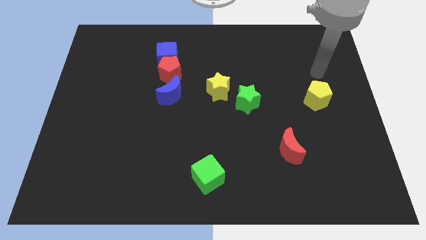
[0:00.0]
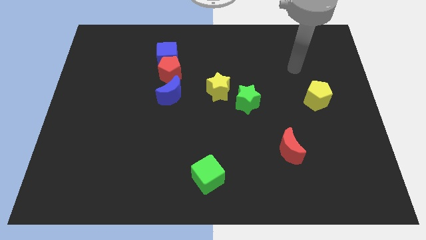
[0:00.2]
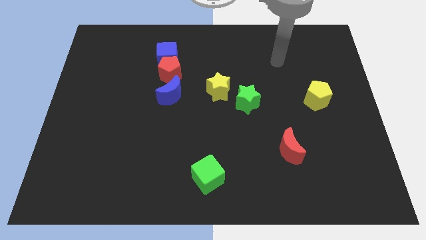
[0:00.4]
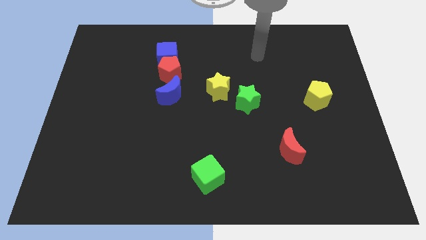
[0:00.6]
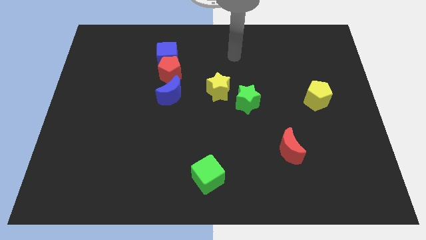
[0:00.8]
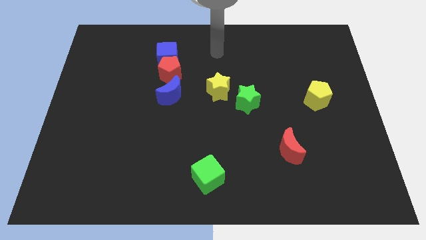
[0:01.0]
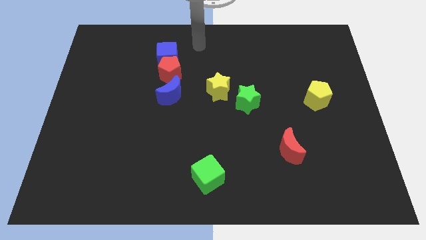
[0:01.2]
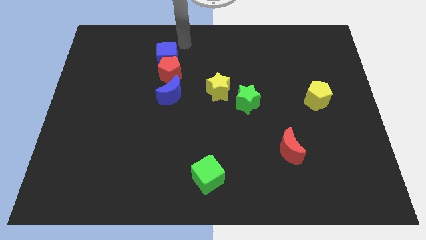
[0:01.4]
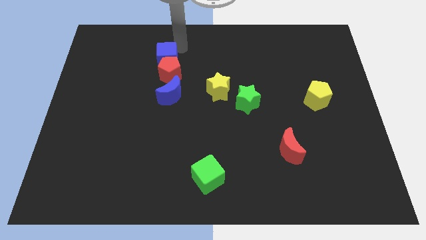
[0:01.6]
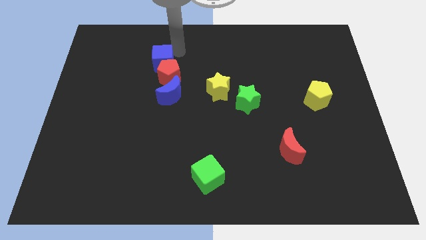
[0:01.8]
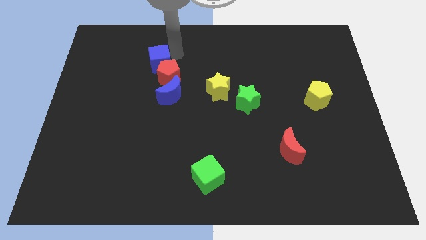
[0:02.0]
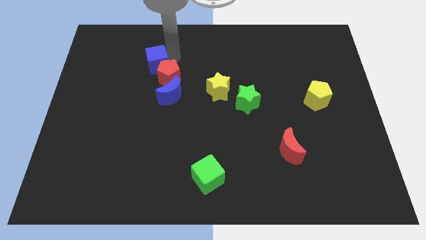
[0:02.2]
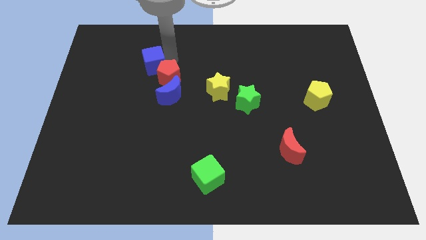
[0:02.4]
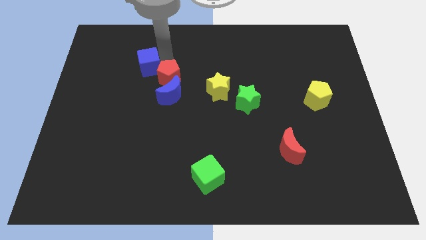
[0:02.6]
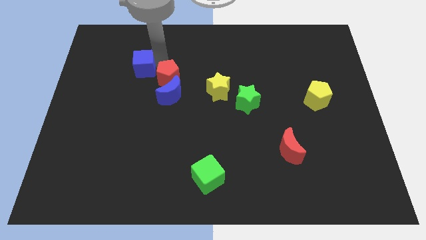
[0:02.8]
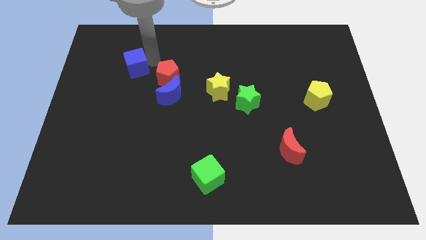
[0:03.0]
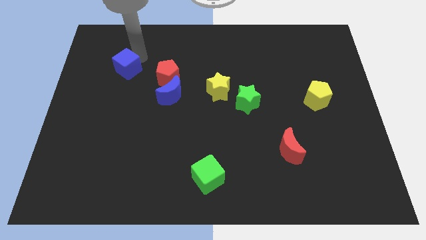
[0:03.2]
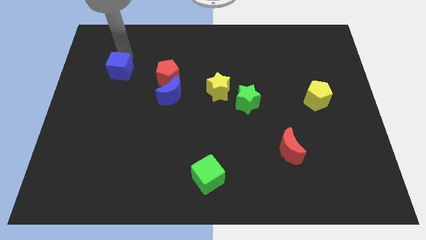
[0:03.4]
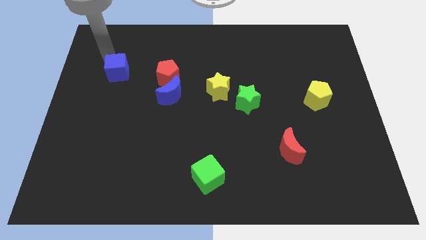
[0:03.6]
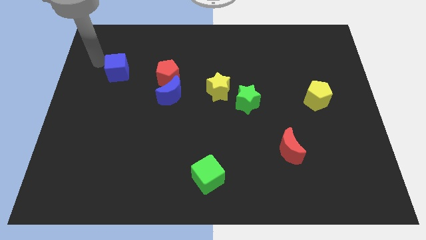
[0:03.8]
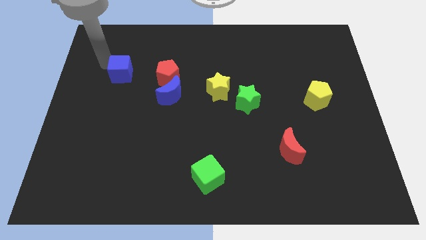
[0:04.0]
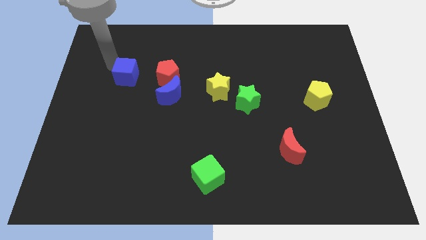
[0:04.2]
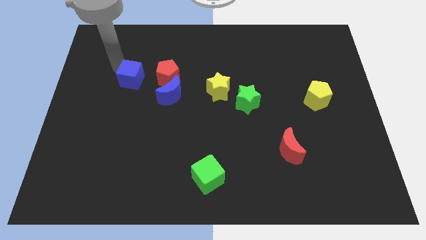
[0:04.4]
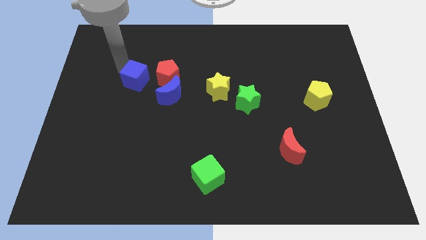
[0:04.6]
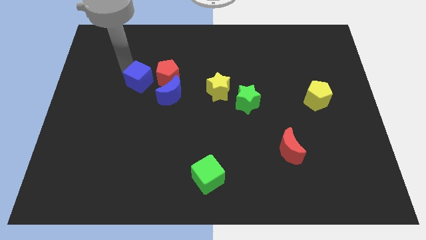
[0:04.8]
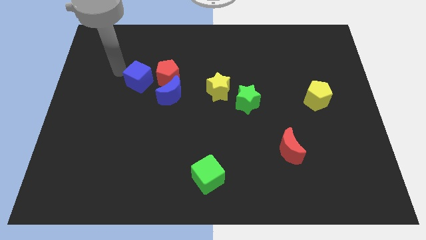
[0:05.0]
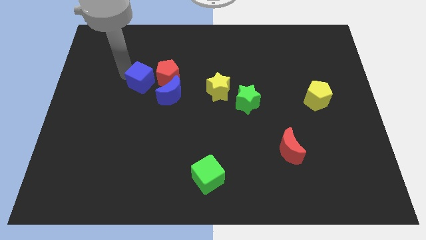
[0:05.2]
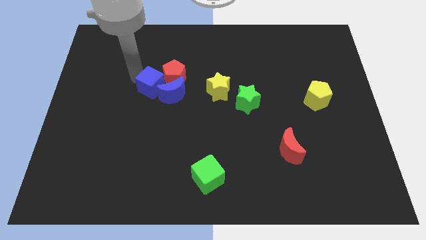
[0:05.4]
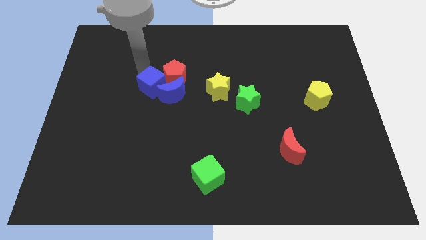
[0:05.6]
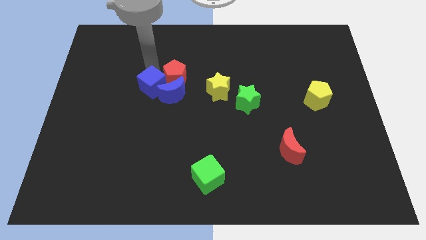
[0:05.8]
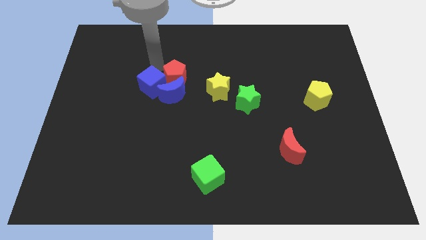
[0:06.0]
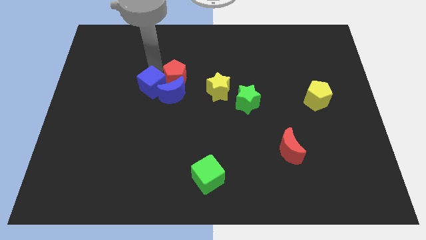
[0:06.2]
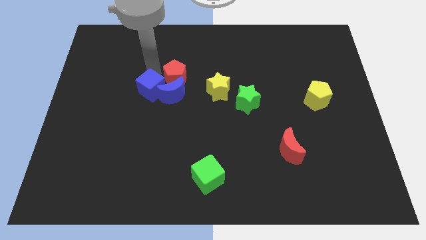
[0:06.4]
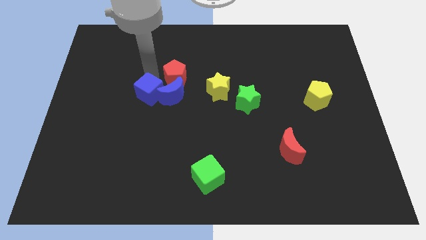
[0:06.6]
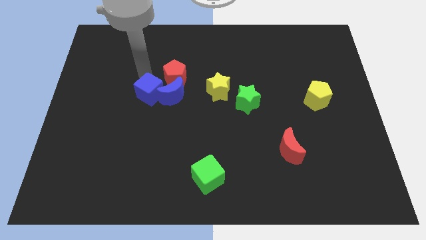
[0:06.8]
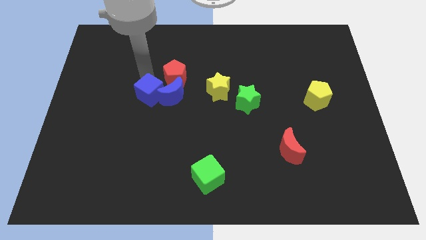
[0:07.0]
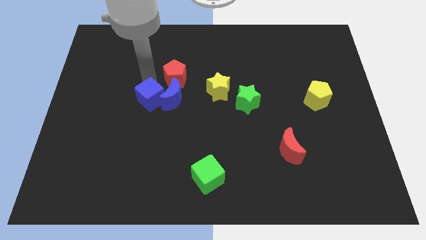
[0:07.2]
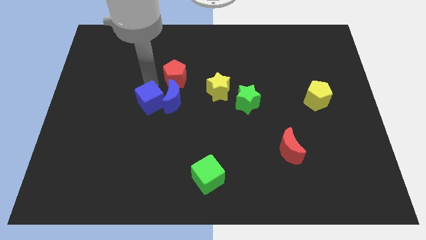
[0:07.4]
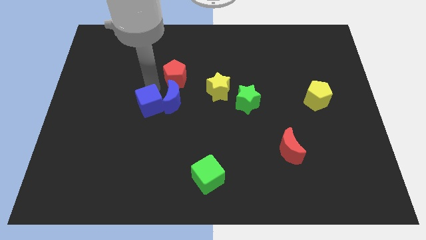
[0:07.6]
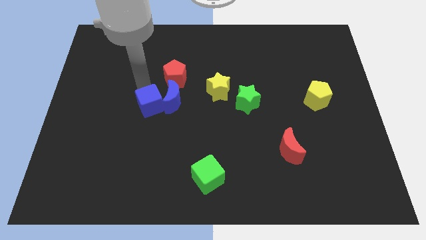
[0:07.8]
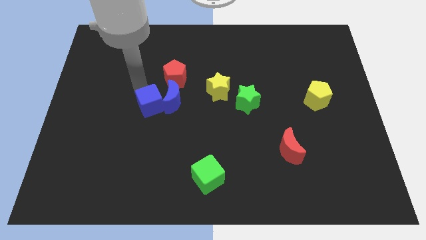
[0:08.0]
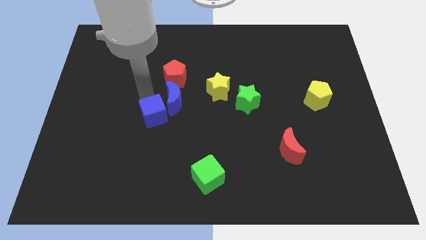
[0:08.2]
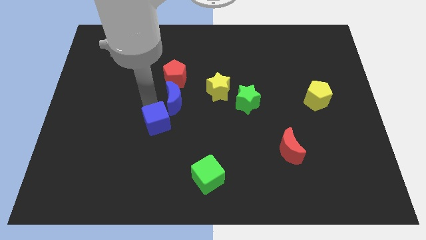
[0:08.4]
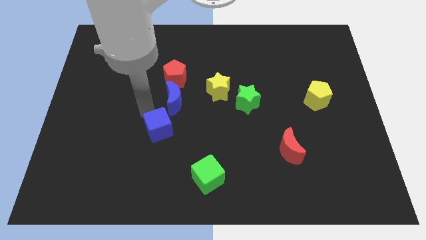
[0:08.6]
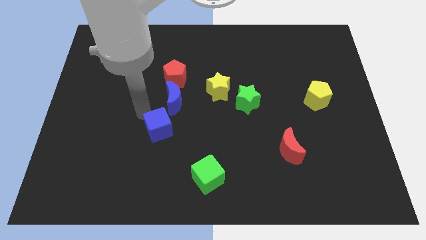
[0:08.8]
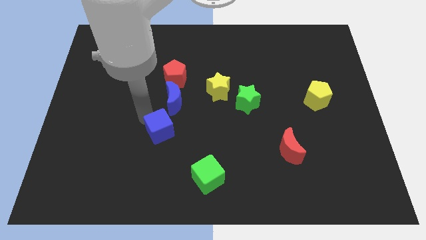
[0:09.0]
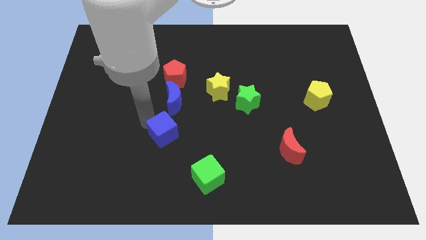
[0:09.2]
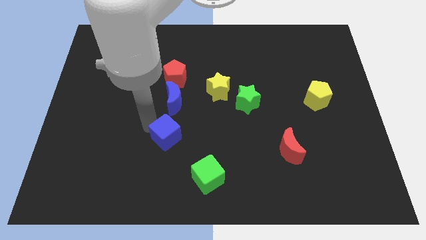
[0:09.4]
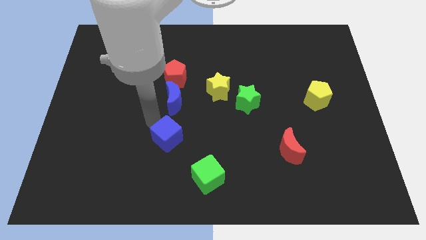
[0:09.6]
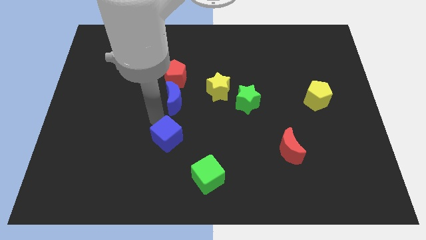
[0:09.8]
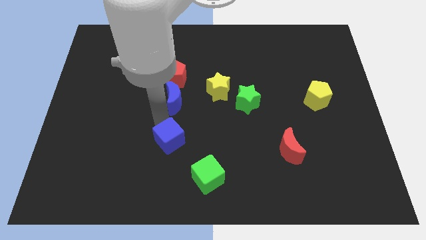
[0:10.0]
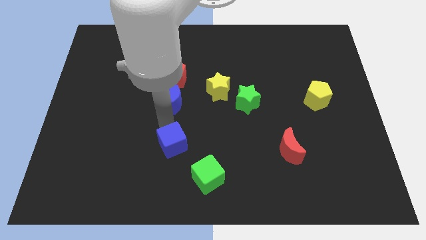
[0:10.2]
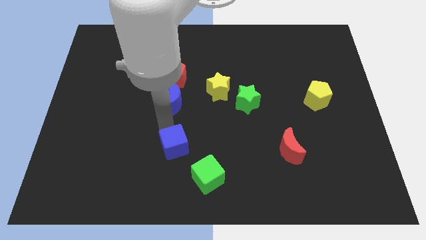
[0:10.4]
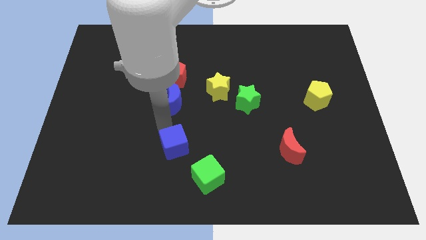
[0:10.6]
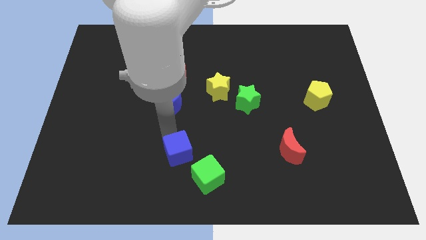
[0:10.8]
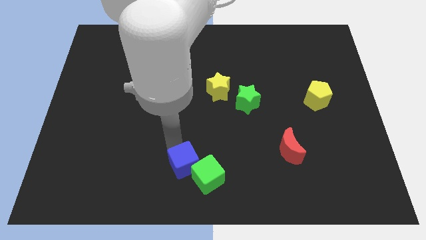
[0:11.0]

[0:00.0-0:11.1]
move the blue cube close to the green cube

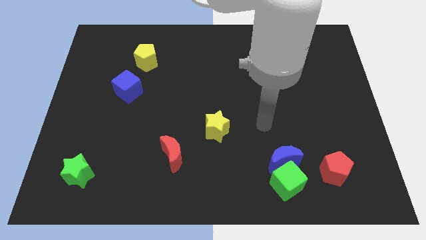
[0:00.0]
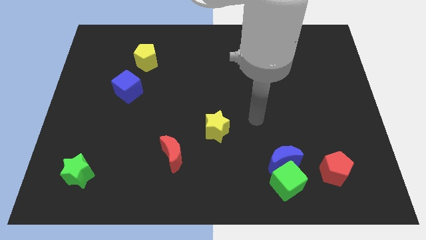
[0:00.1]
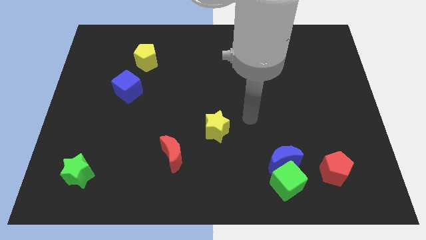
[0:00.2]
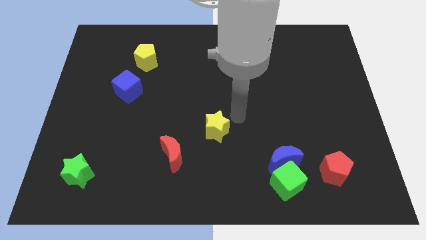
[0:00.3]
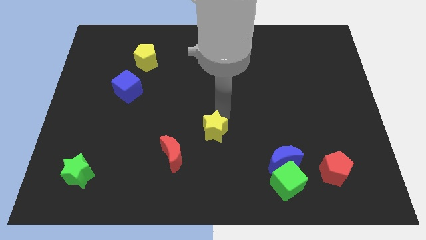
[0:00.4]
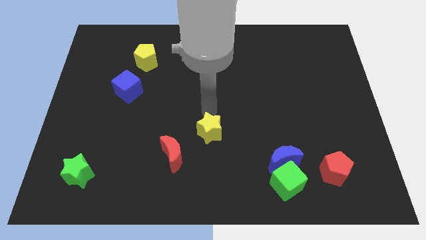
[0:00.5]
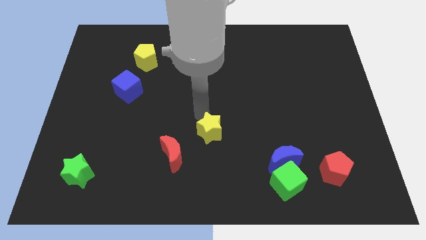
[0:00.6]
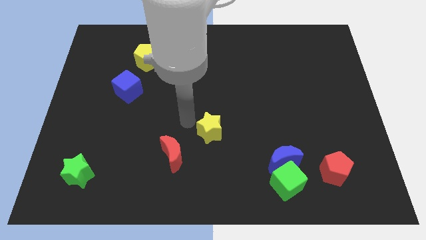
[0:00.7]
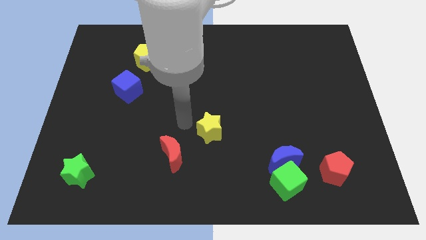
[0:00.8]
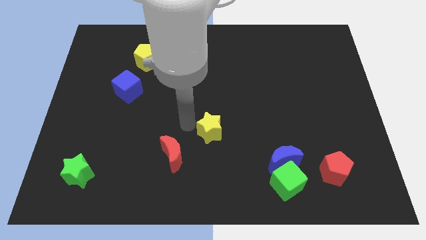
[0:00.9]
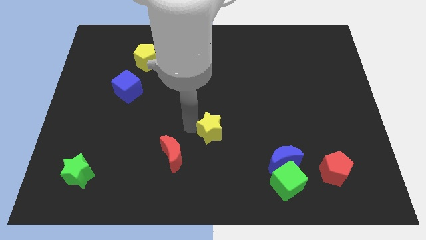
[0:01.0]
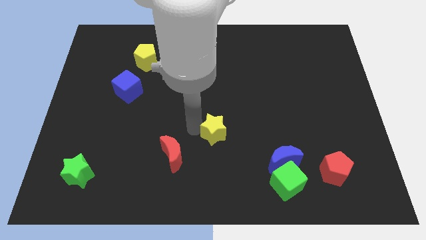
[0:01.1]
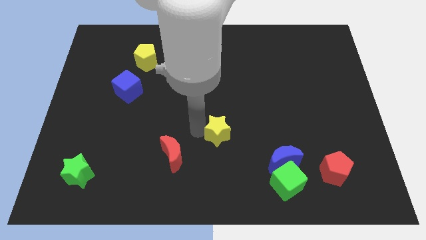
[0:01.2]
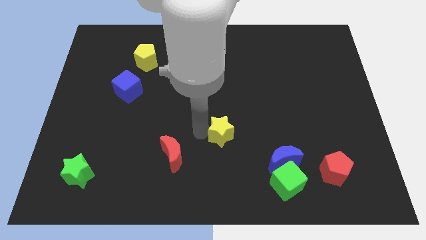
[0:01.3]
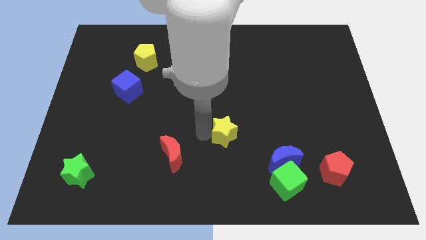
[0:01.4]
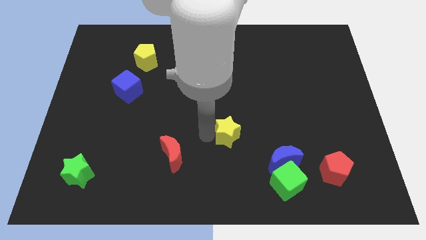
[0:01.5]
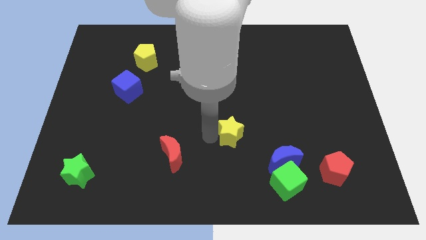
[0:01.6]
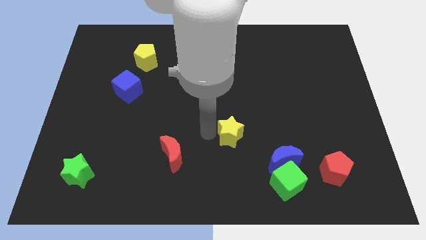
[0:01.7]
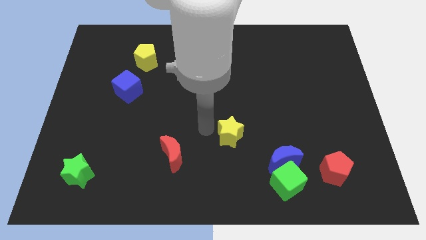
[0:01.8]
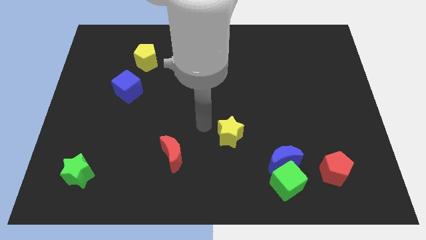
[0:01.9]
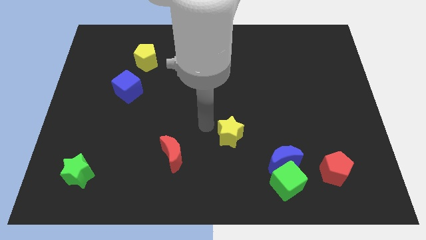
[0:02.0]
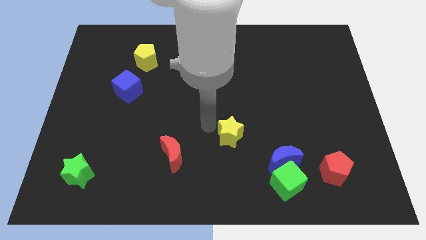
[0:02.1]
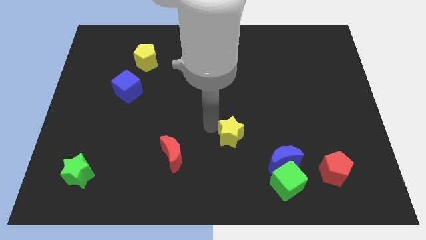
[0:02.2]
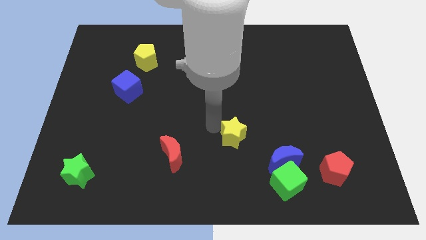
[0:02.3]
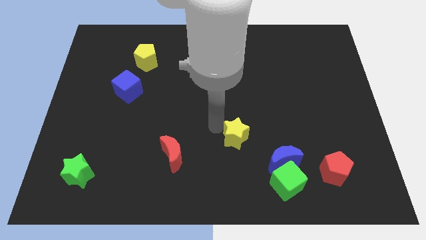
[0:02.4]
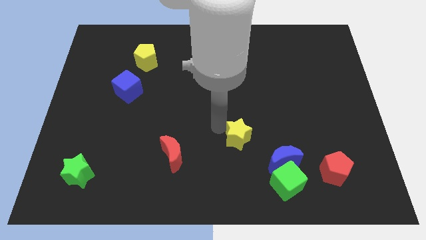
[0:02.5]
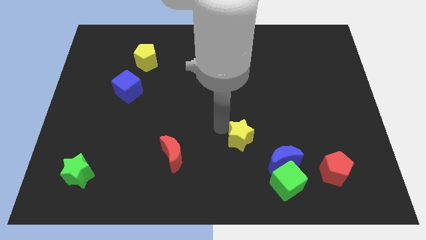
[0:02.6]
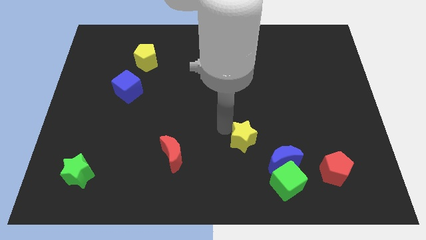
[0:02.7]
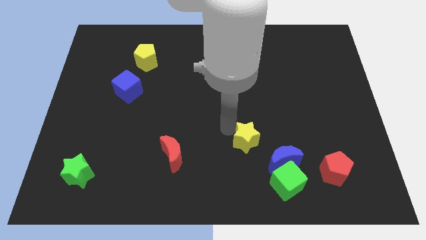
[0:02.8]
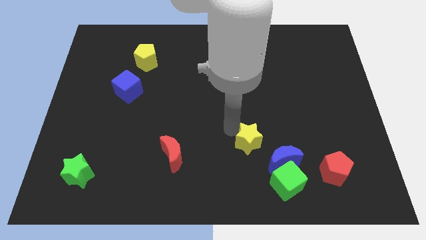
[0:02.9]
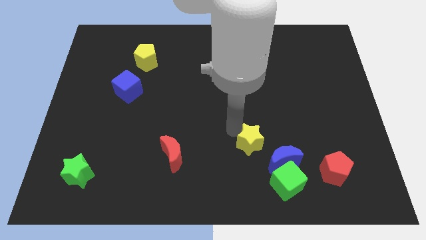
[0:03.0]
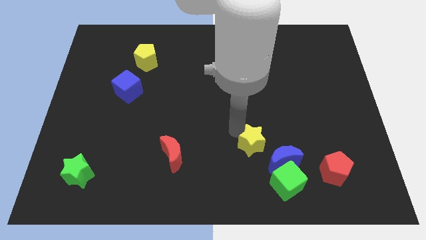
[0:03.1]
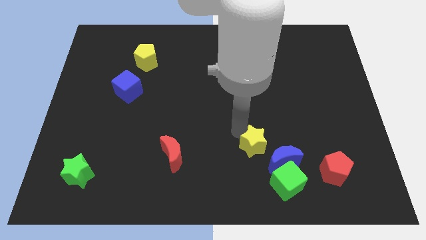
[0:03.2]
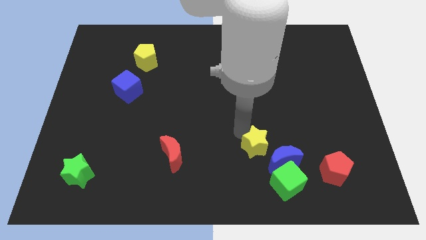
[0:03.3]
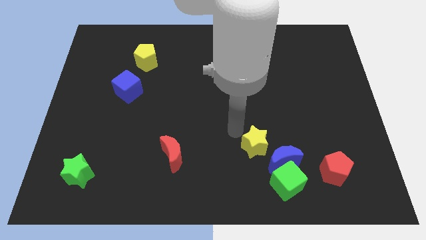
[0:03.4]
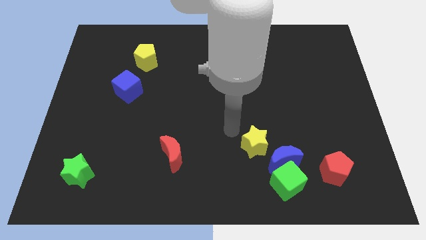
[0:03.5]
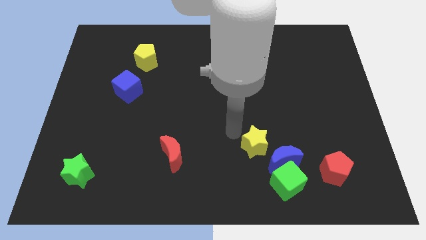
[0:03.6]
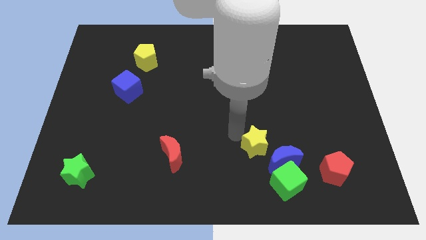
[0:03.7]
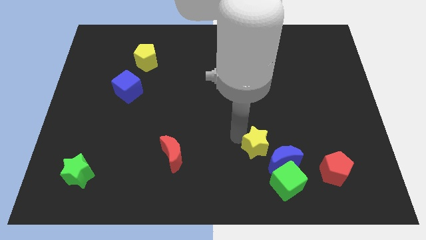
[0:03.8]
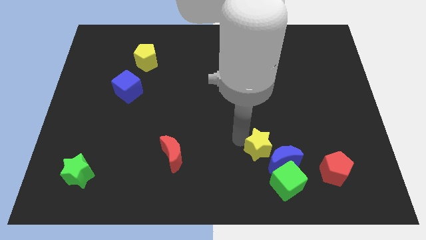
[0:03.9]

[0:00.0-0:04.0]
slide the yellow star towards the blue moon
